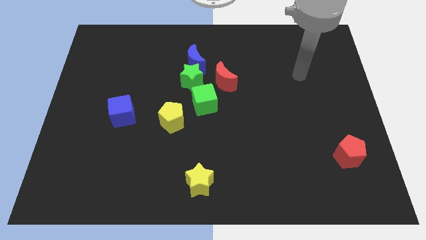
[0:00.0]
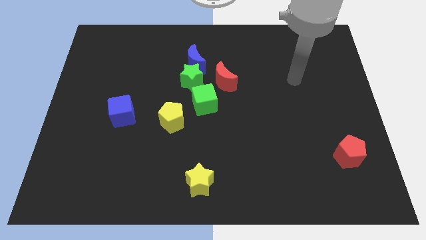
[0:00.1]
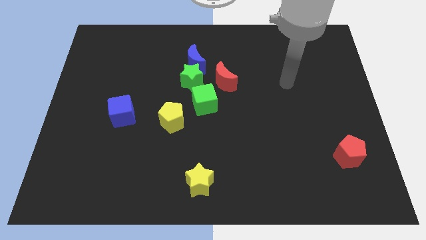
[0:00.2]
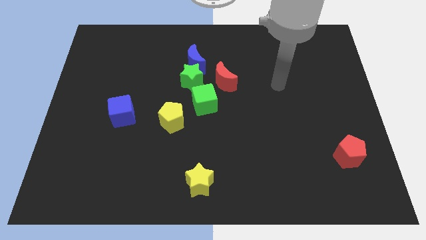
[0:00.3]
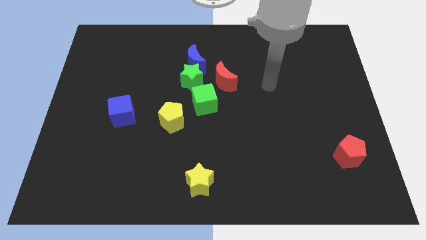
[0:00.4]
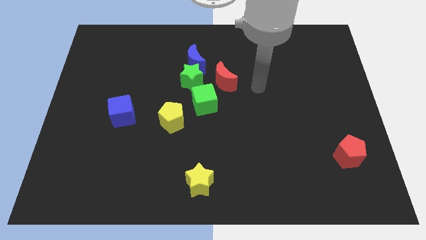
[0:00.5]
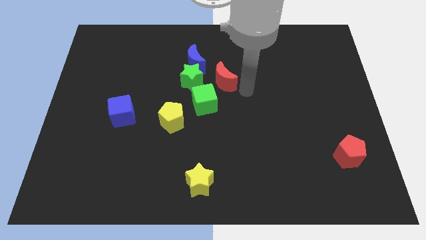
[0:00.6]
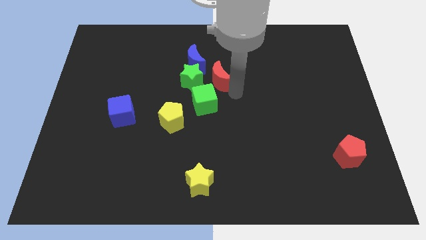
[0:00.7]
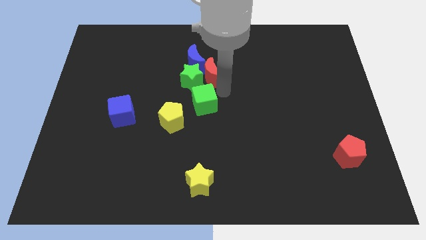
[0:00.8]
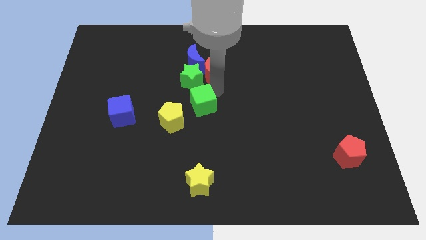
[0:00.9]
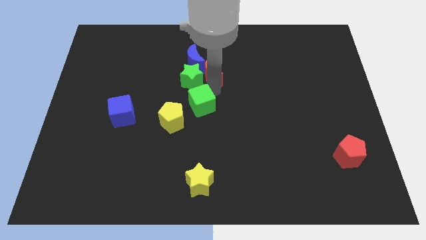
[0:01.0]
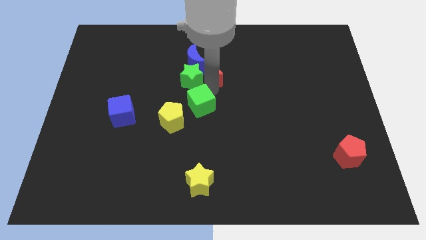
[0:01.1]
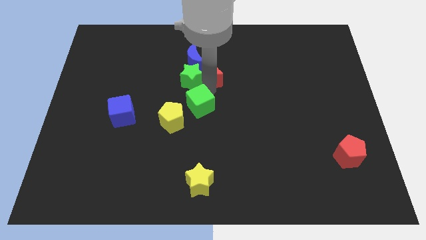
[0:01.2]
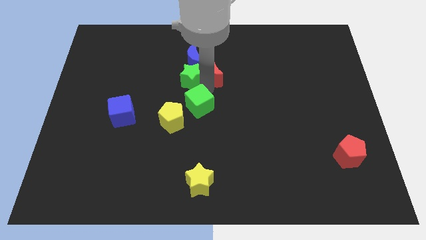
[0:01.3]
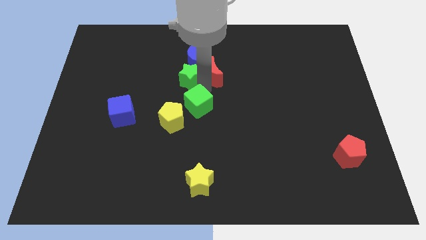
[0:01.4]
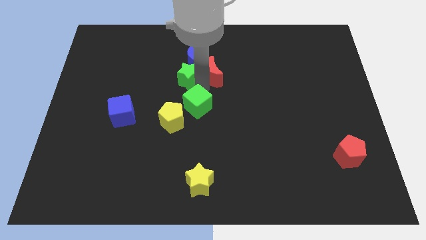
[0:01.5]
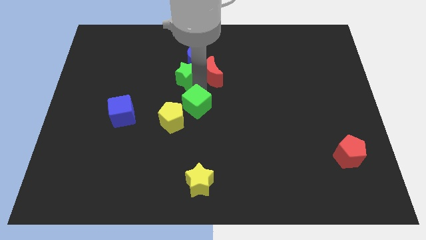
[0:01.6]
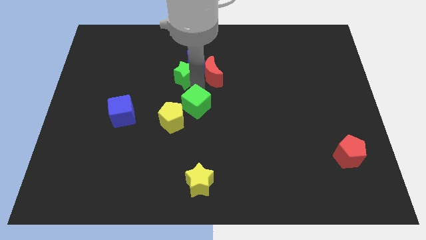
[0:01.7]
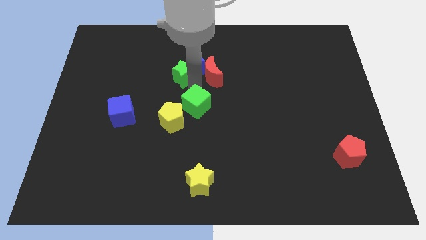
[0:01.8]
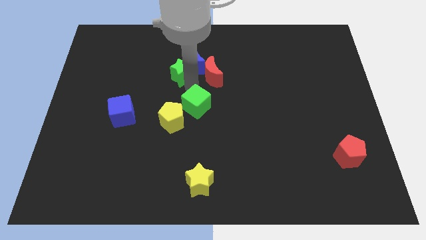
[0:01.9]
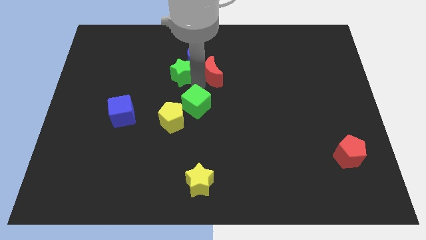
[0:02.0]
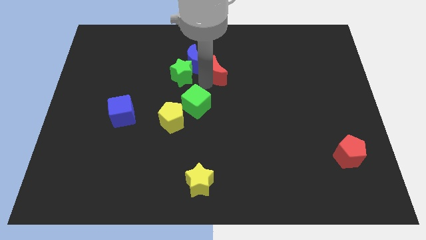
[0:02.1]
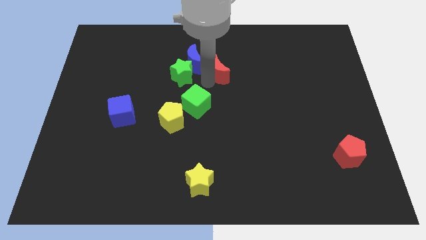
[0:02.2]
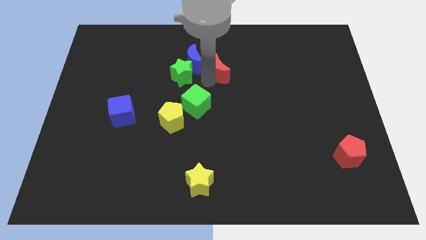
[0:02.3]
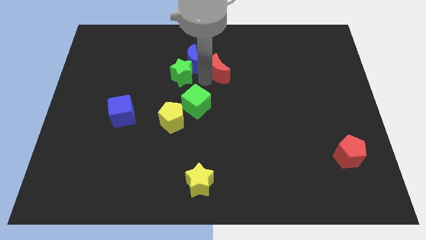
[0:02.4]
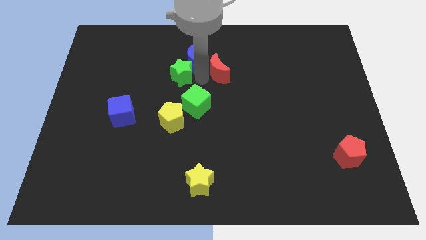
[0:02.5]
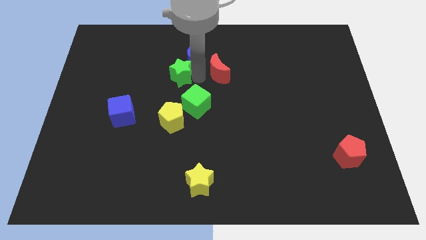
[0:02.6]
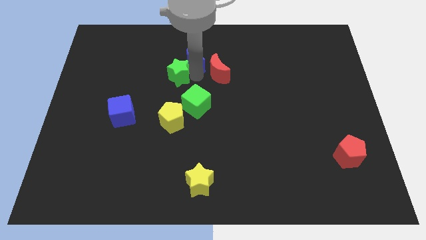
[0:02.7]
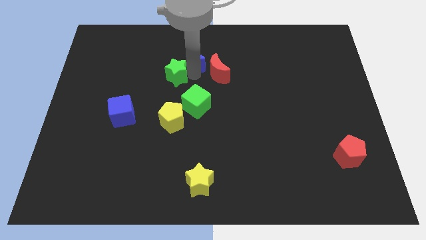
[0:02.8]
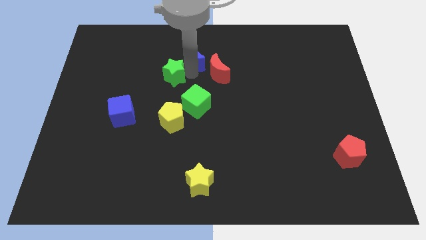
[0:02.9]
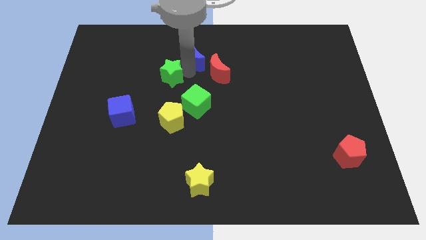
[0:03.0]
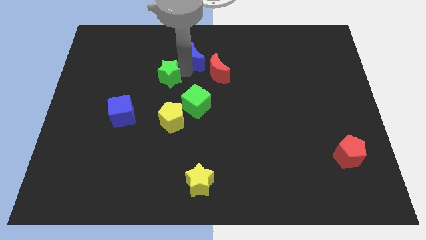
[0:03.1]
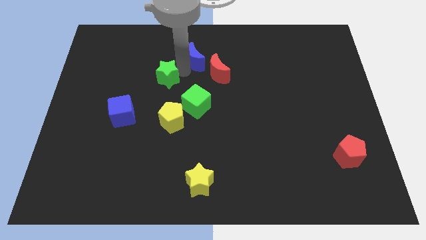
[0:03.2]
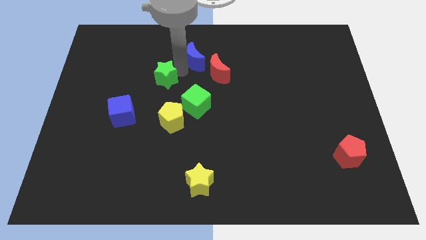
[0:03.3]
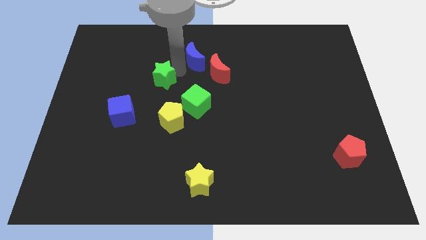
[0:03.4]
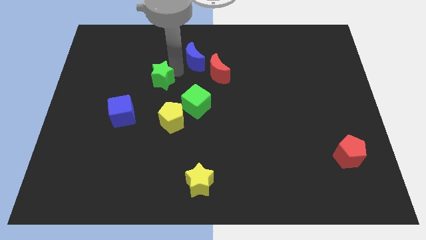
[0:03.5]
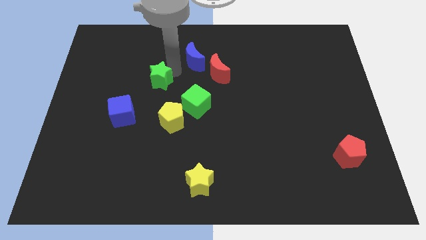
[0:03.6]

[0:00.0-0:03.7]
move the green star away from the blue moon, green cube, and red moon

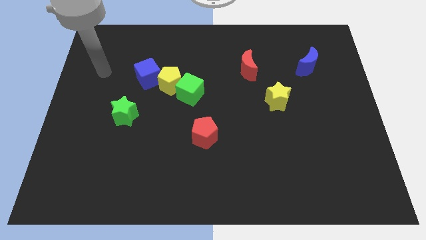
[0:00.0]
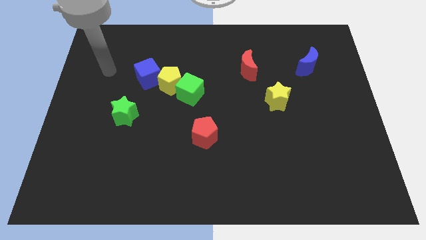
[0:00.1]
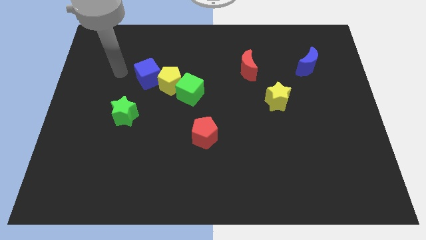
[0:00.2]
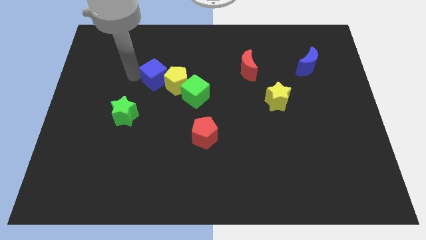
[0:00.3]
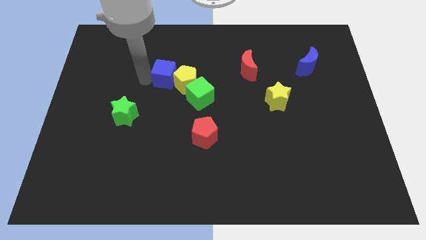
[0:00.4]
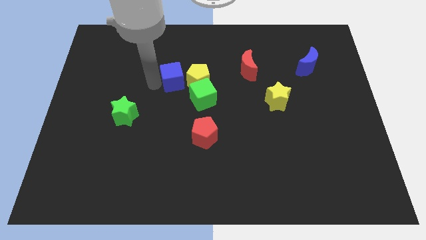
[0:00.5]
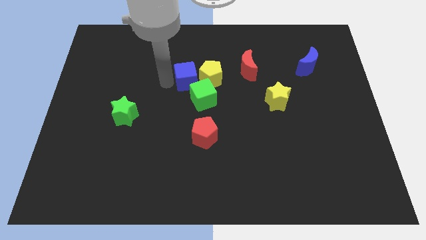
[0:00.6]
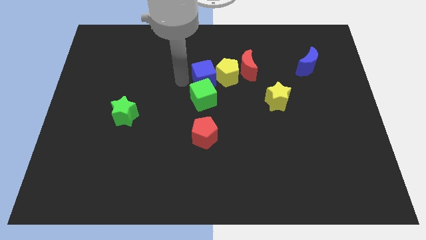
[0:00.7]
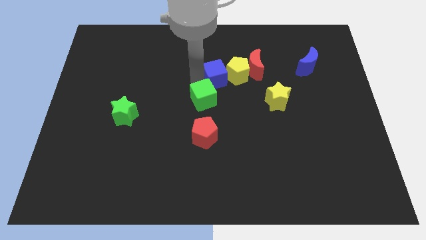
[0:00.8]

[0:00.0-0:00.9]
move the green cube away from the yellow pentagon

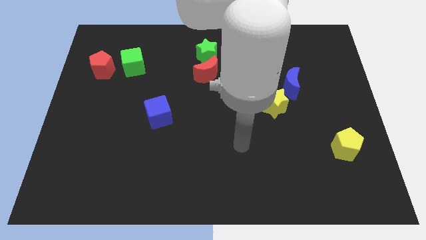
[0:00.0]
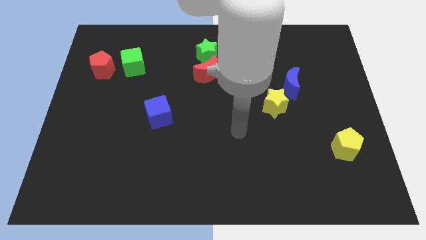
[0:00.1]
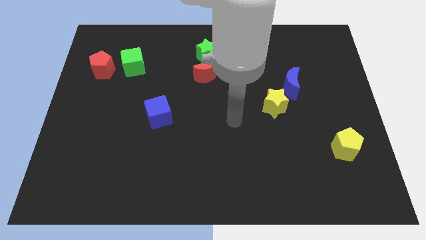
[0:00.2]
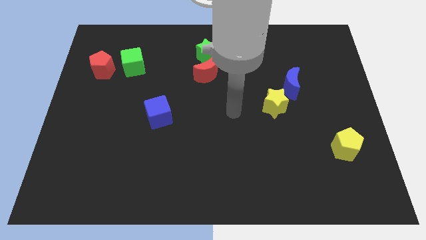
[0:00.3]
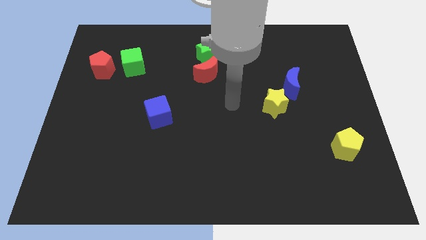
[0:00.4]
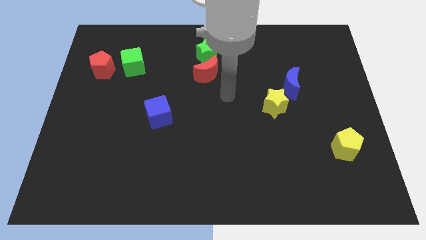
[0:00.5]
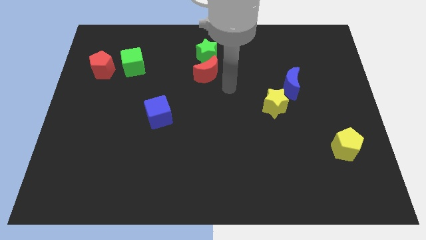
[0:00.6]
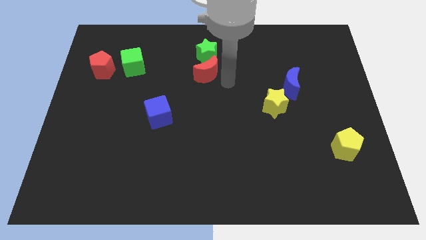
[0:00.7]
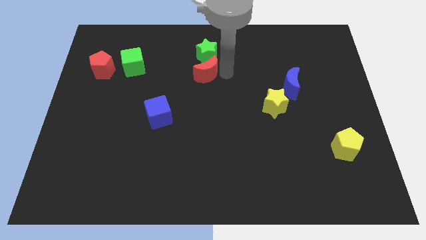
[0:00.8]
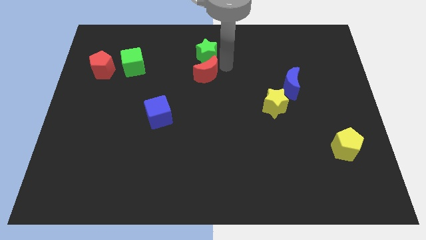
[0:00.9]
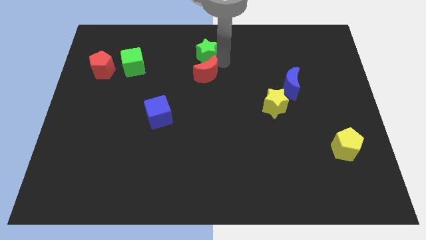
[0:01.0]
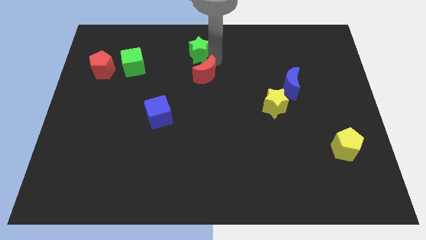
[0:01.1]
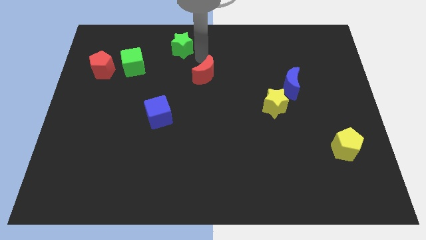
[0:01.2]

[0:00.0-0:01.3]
separate the red moon from the green star

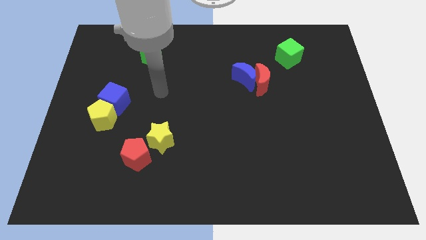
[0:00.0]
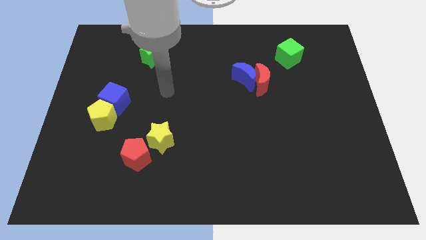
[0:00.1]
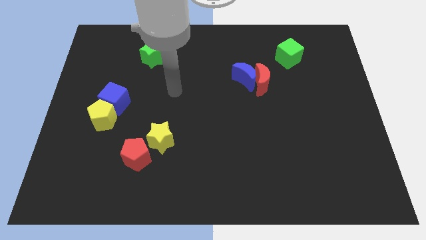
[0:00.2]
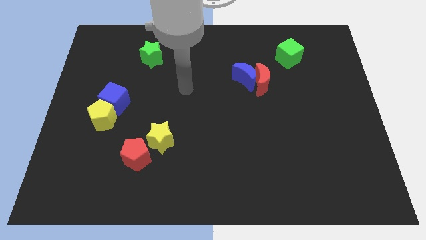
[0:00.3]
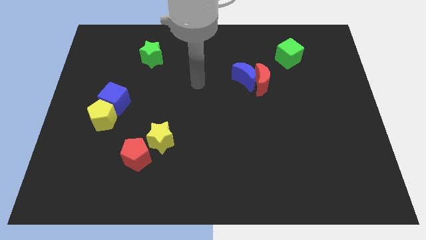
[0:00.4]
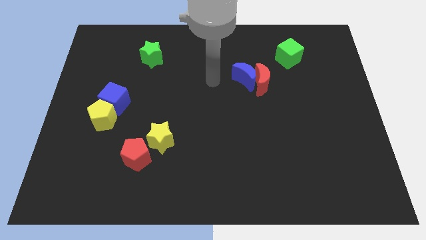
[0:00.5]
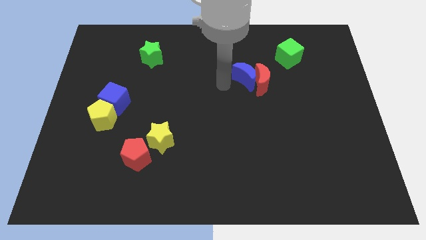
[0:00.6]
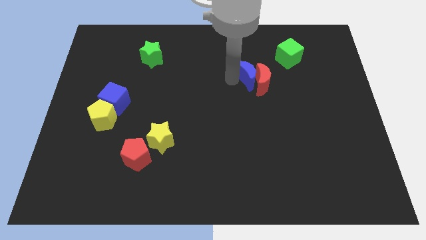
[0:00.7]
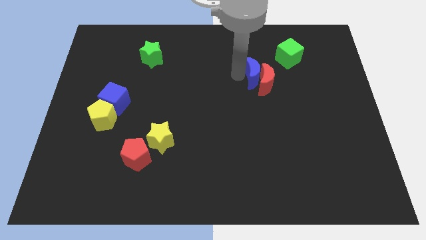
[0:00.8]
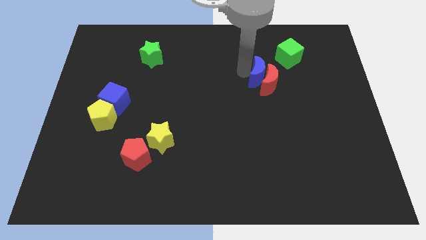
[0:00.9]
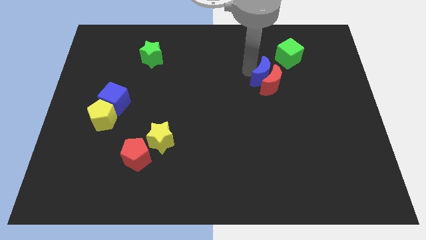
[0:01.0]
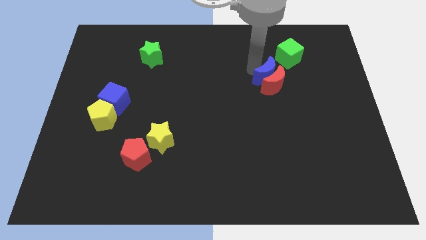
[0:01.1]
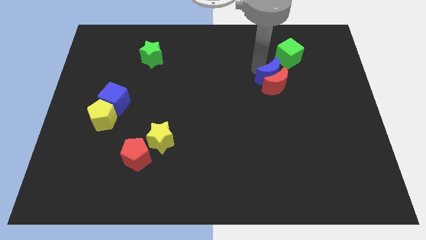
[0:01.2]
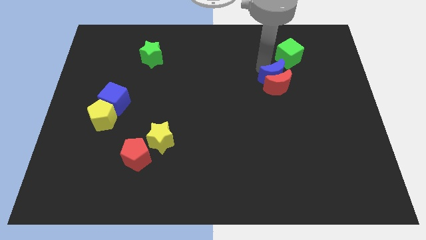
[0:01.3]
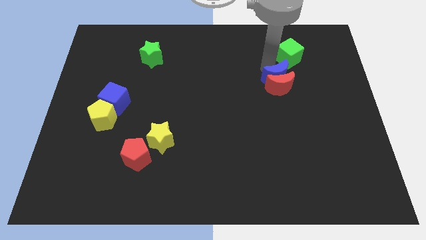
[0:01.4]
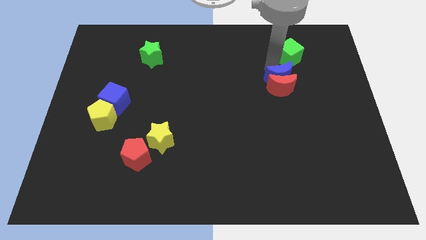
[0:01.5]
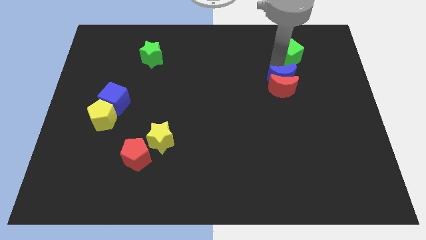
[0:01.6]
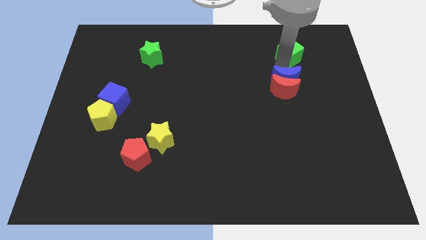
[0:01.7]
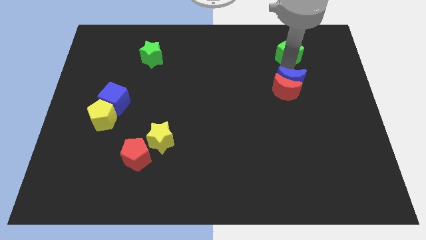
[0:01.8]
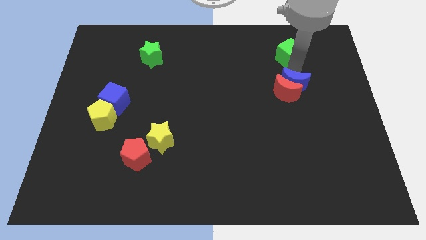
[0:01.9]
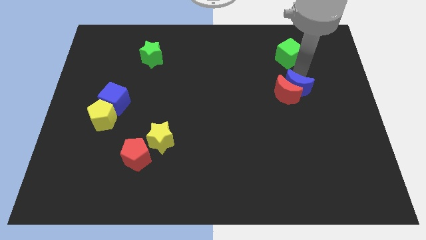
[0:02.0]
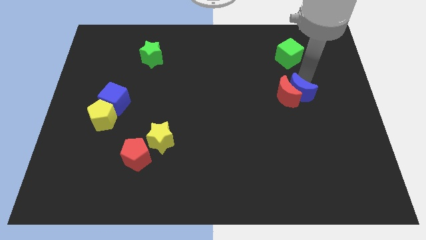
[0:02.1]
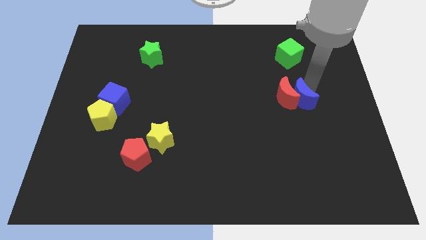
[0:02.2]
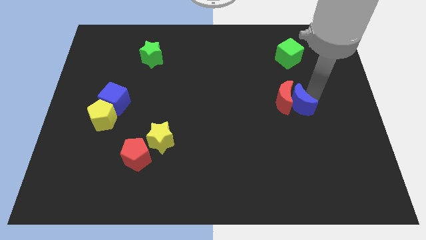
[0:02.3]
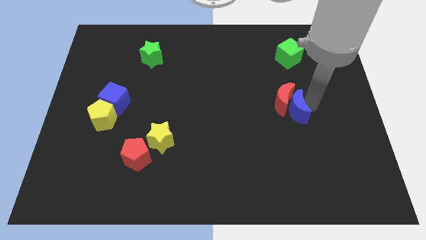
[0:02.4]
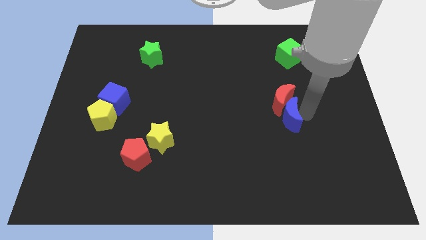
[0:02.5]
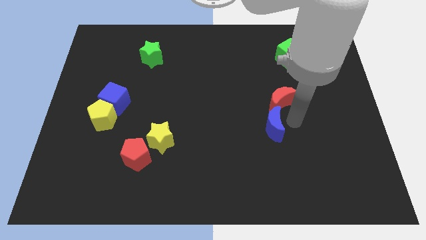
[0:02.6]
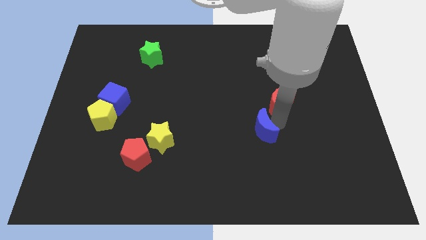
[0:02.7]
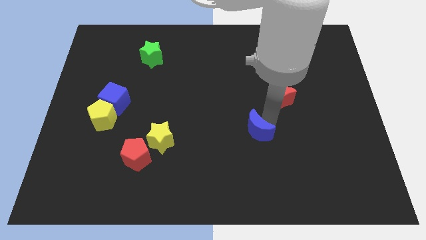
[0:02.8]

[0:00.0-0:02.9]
pull the red moon apart from the blue moon

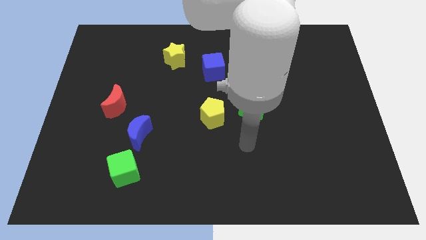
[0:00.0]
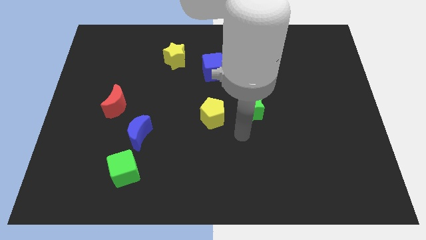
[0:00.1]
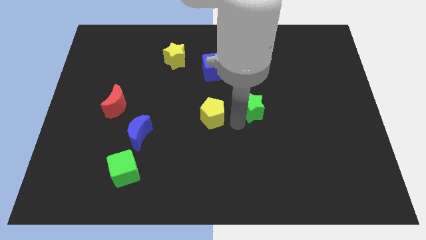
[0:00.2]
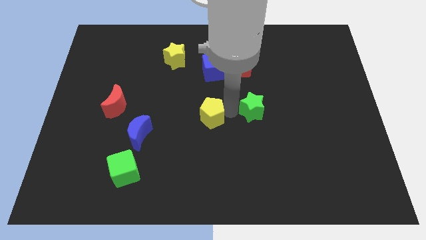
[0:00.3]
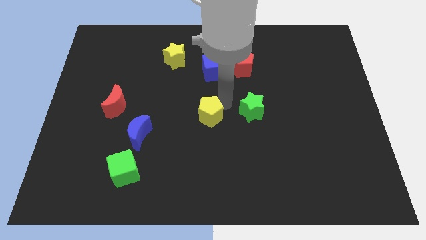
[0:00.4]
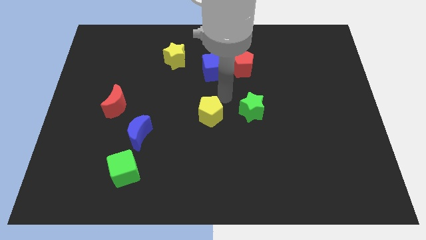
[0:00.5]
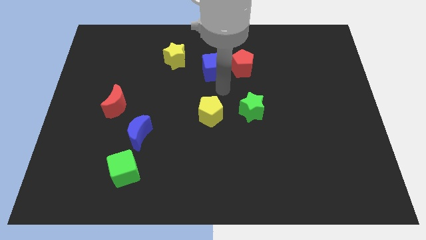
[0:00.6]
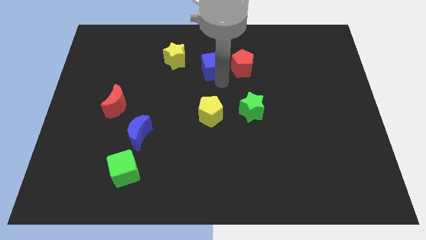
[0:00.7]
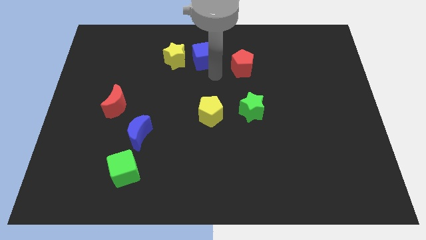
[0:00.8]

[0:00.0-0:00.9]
separate the red pentagon from the blue cube
